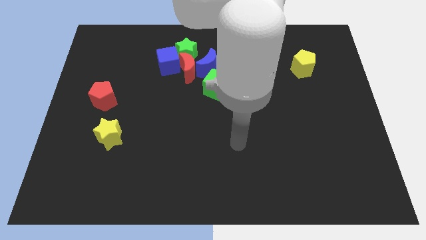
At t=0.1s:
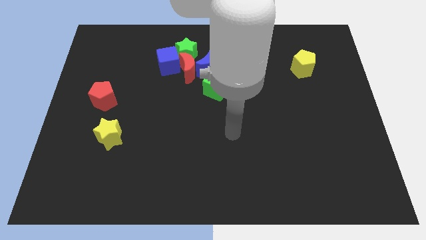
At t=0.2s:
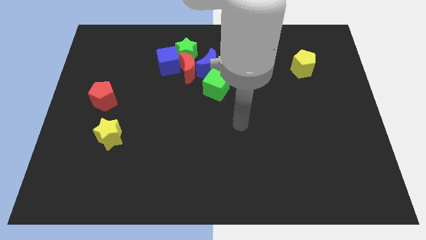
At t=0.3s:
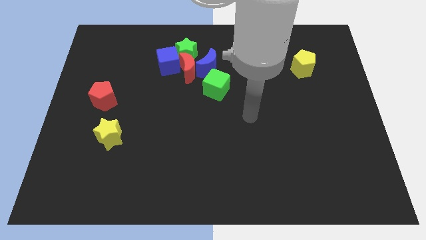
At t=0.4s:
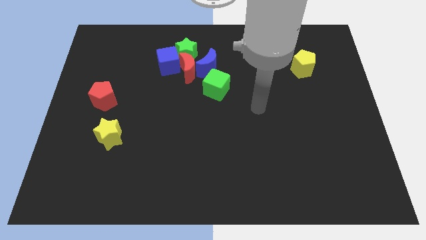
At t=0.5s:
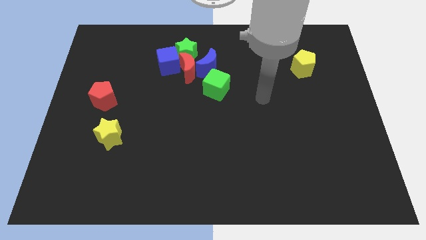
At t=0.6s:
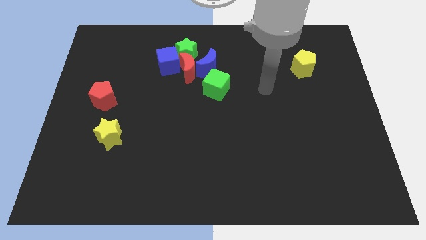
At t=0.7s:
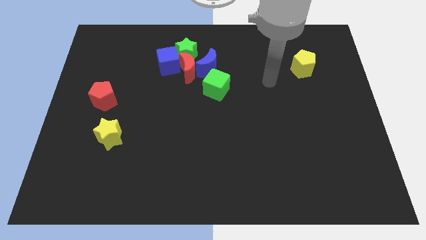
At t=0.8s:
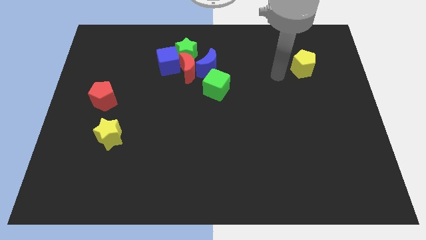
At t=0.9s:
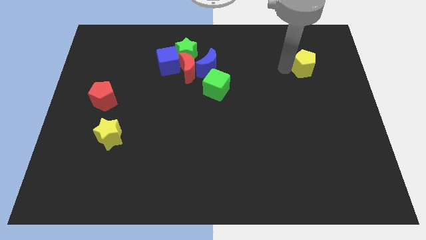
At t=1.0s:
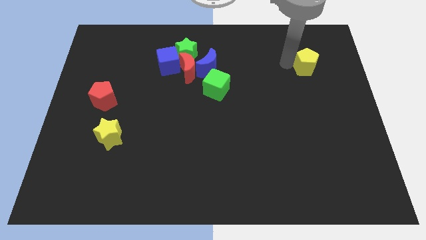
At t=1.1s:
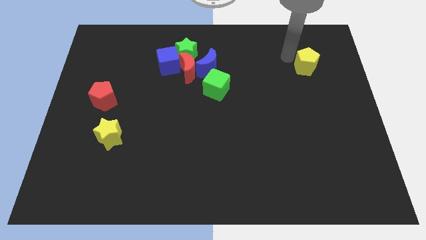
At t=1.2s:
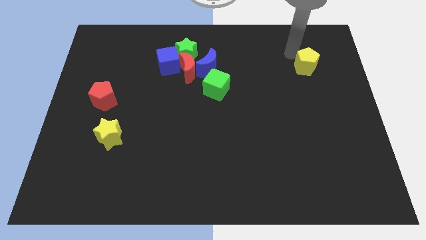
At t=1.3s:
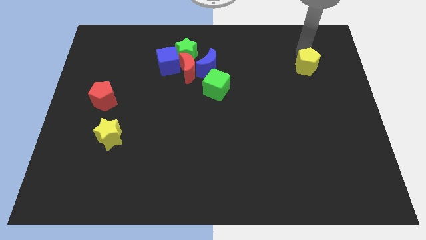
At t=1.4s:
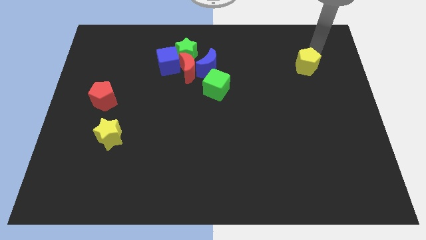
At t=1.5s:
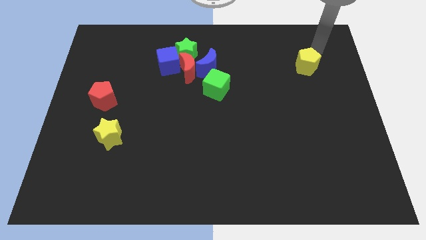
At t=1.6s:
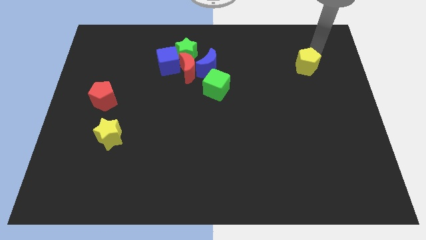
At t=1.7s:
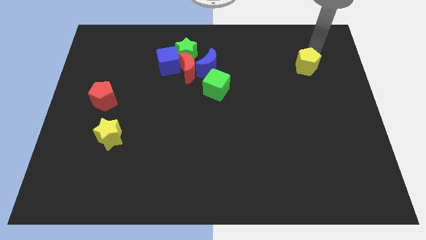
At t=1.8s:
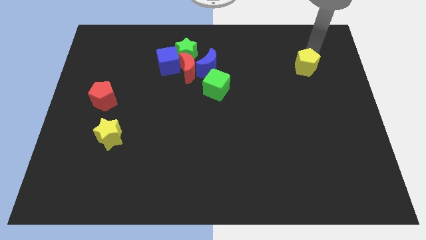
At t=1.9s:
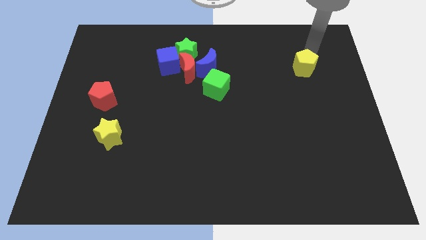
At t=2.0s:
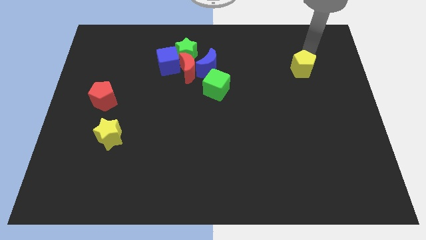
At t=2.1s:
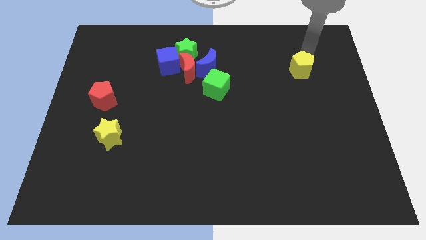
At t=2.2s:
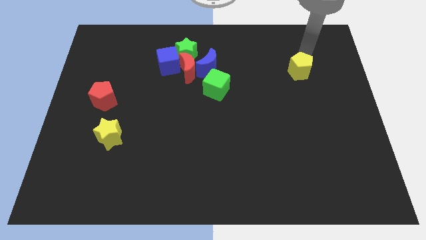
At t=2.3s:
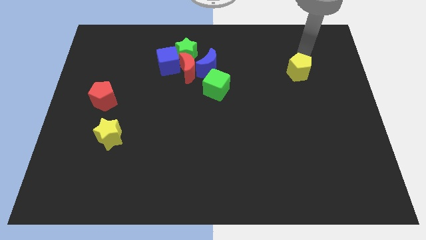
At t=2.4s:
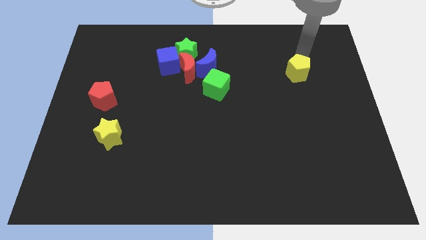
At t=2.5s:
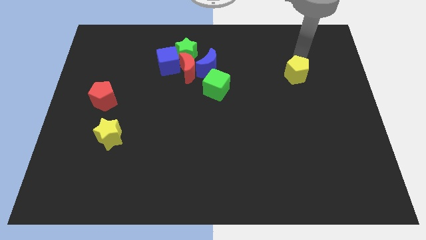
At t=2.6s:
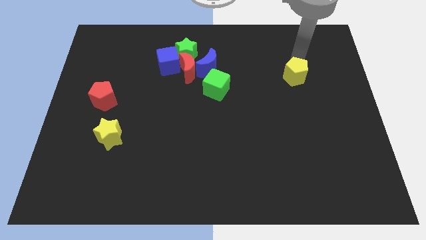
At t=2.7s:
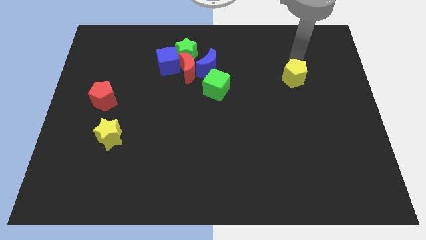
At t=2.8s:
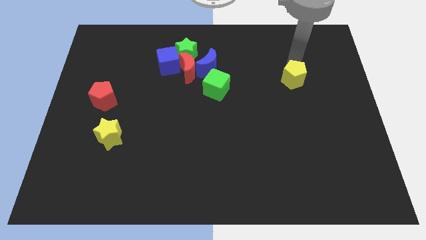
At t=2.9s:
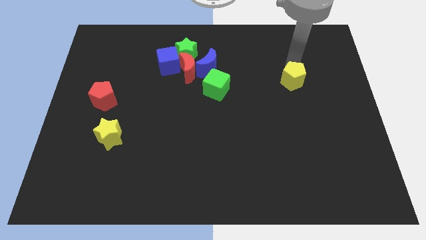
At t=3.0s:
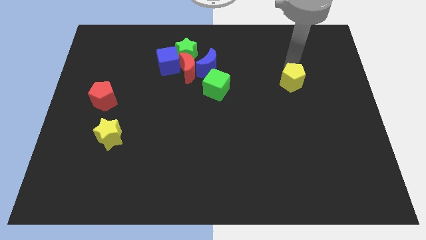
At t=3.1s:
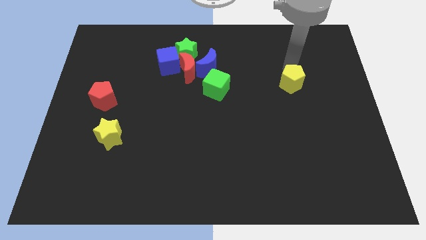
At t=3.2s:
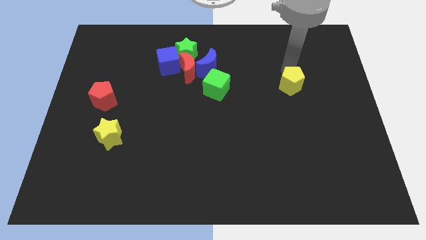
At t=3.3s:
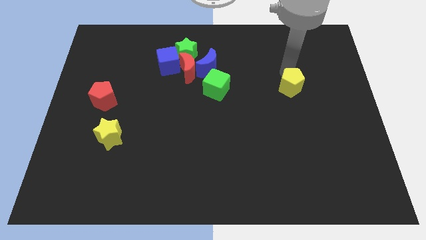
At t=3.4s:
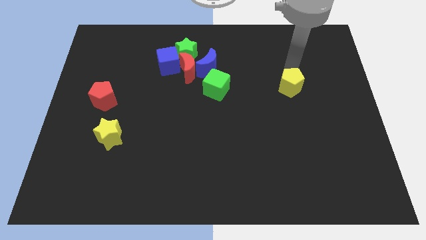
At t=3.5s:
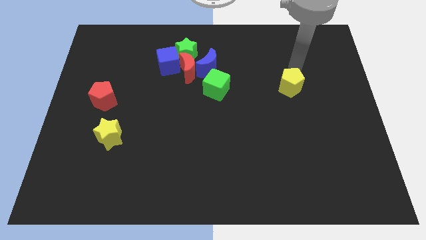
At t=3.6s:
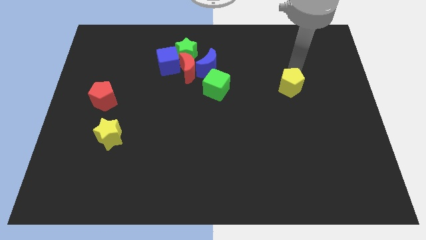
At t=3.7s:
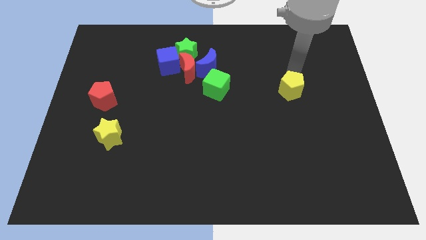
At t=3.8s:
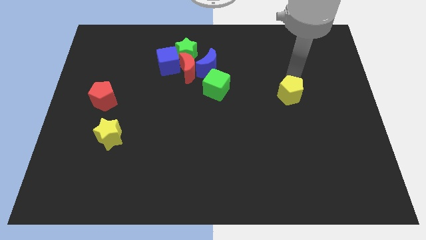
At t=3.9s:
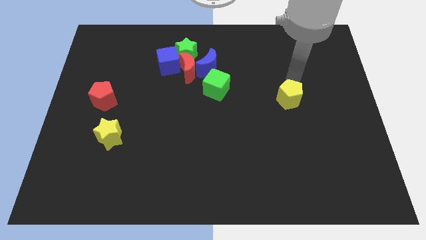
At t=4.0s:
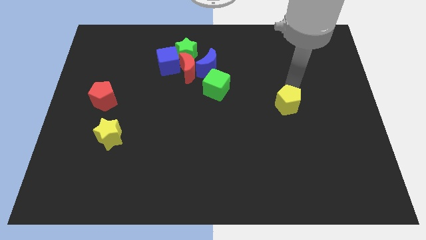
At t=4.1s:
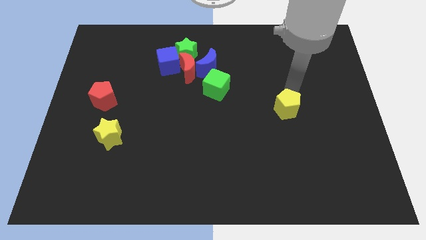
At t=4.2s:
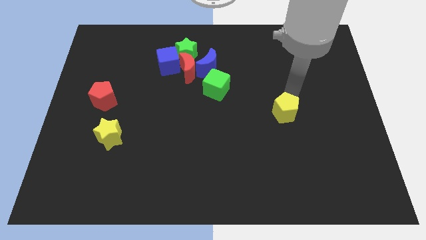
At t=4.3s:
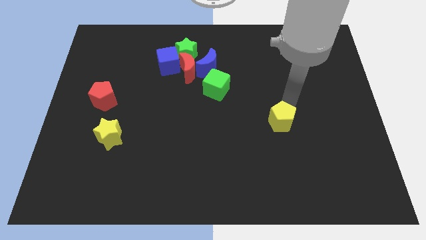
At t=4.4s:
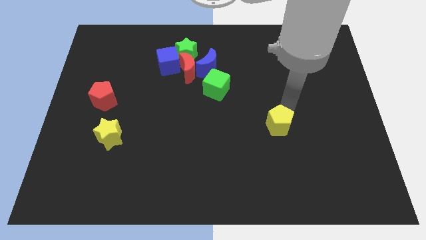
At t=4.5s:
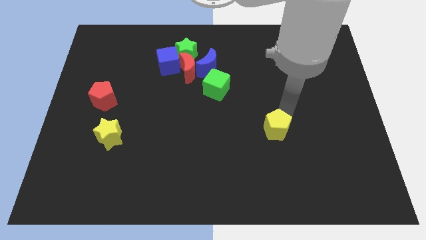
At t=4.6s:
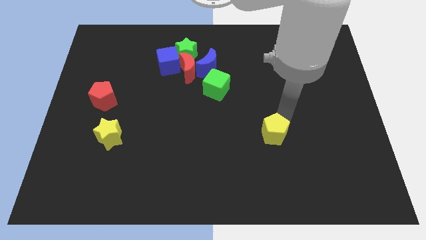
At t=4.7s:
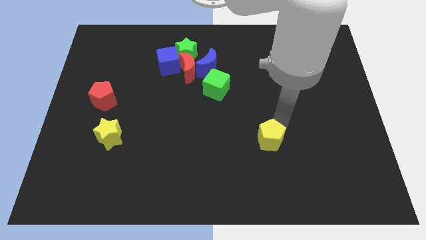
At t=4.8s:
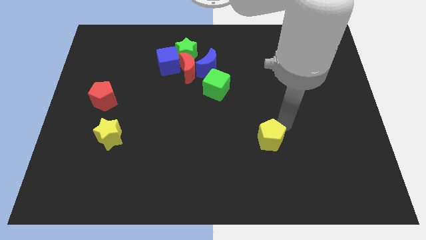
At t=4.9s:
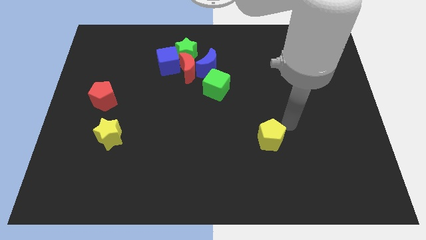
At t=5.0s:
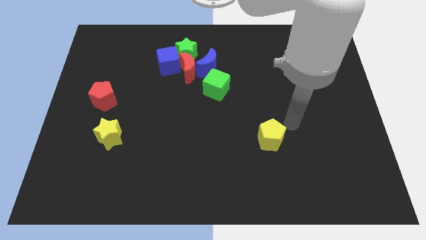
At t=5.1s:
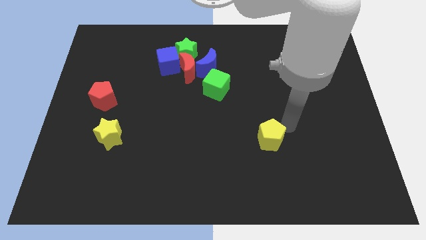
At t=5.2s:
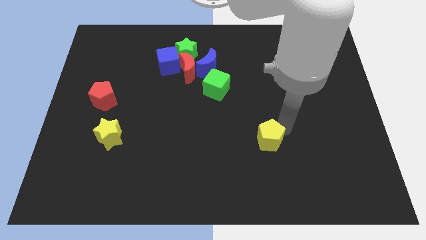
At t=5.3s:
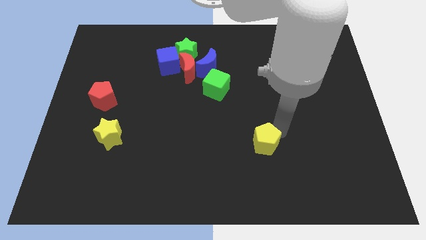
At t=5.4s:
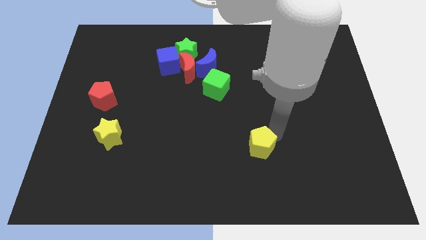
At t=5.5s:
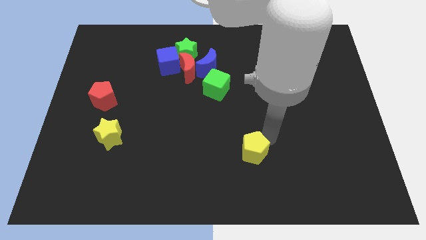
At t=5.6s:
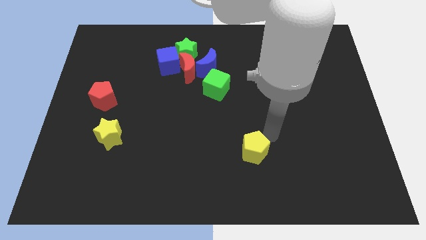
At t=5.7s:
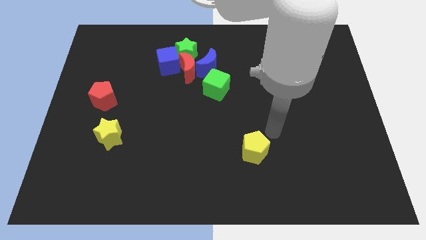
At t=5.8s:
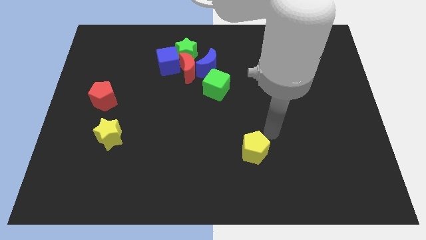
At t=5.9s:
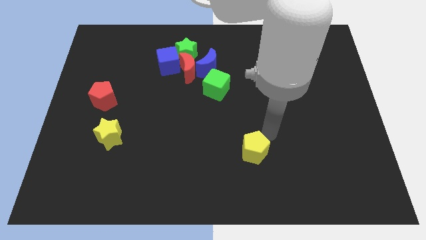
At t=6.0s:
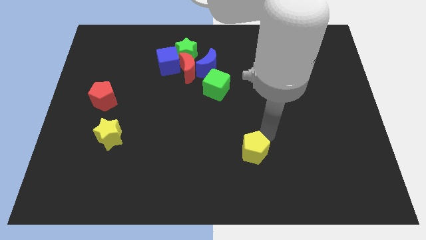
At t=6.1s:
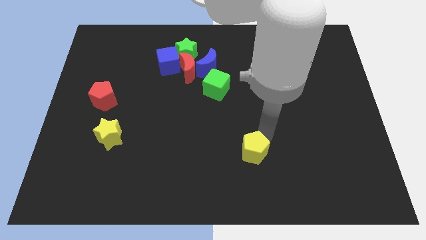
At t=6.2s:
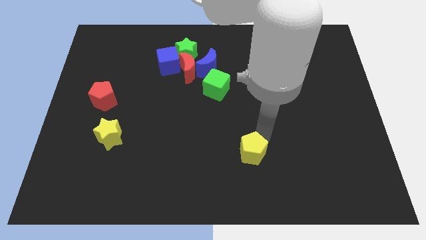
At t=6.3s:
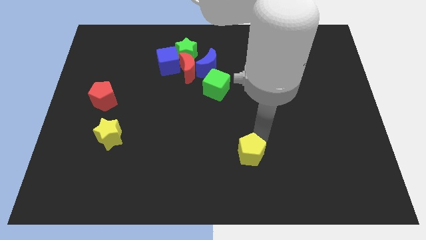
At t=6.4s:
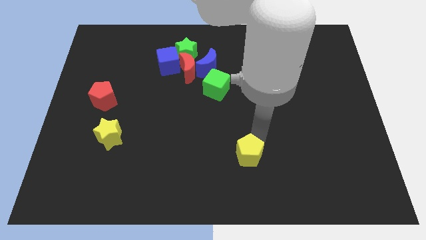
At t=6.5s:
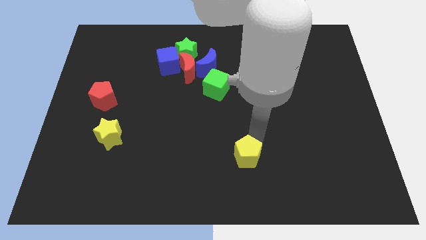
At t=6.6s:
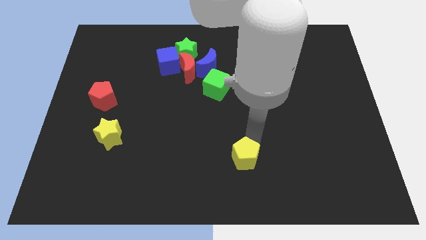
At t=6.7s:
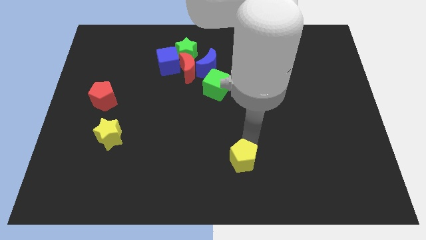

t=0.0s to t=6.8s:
move the yellow pentagon to the bottom

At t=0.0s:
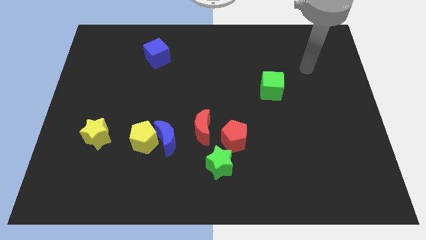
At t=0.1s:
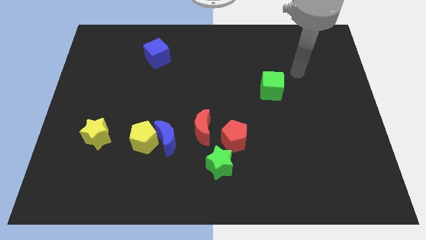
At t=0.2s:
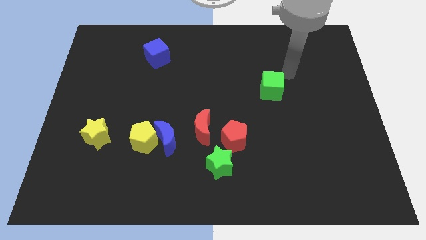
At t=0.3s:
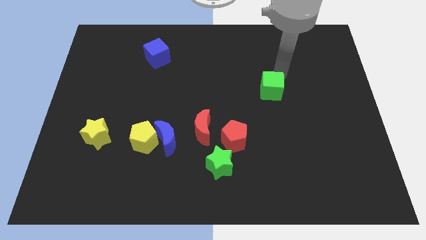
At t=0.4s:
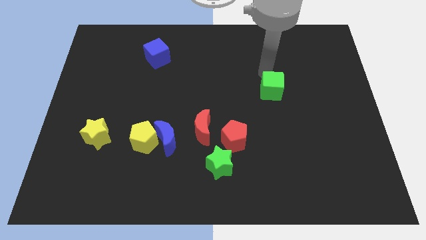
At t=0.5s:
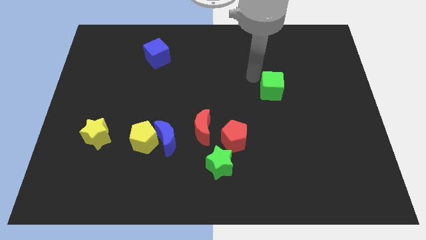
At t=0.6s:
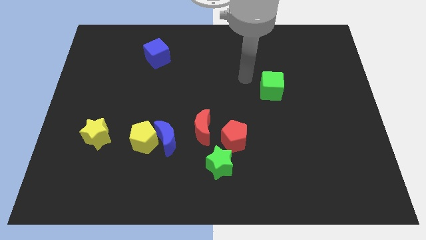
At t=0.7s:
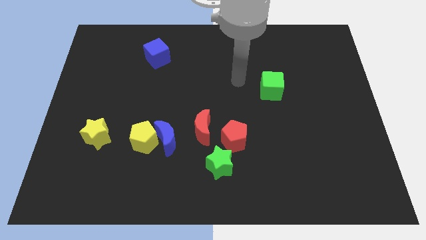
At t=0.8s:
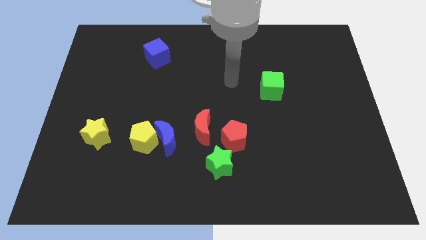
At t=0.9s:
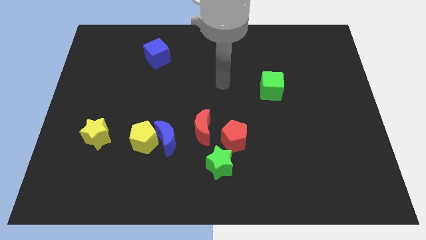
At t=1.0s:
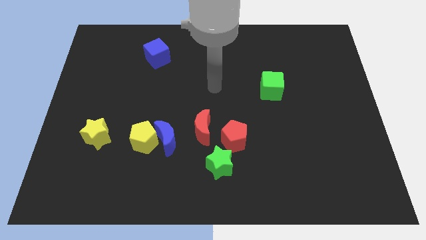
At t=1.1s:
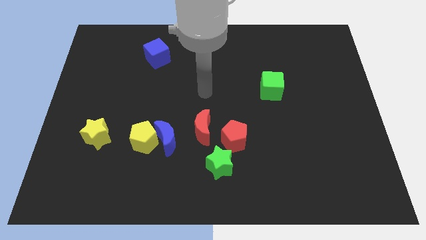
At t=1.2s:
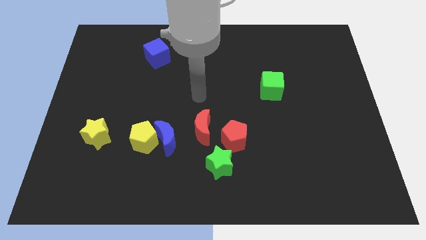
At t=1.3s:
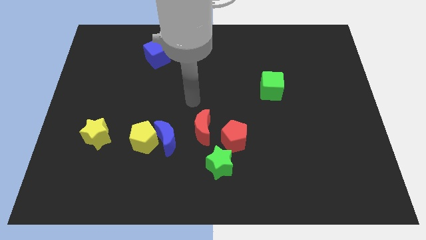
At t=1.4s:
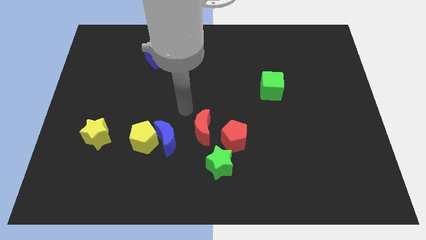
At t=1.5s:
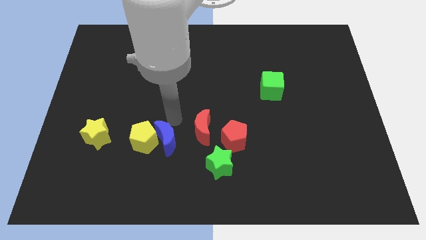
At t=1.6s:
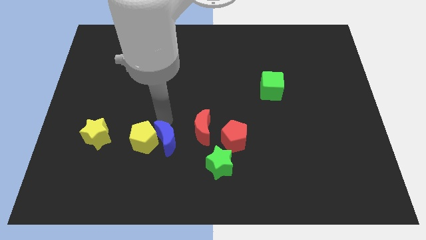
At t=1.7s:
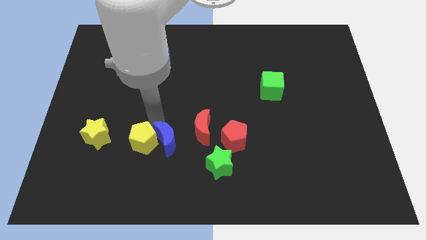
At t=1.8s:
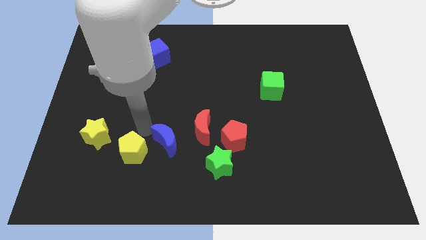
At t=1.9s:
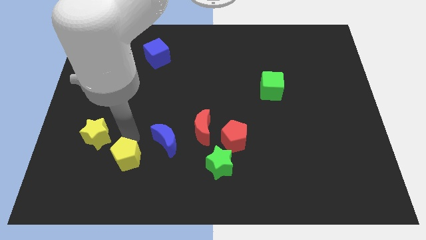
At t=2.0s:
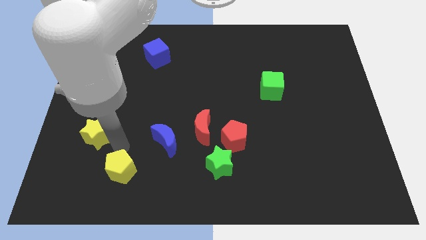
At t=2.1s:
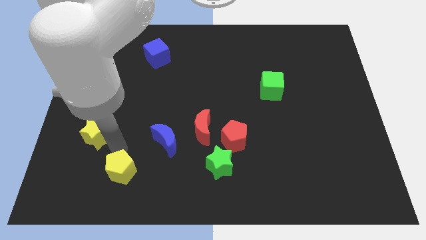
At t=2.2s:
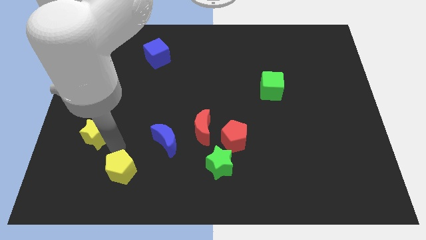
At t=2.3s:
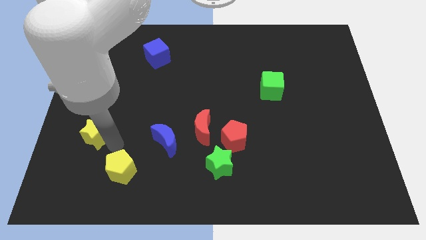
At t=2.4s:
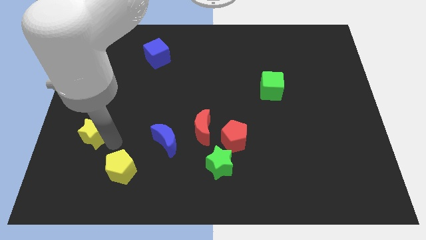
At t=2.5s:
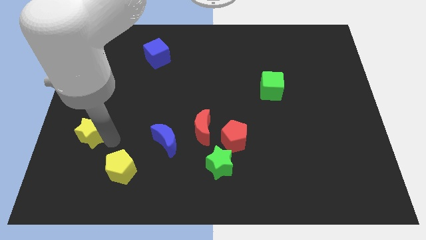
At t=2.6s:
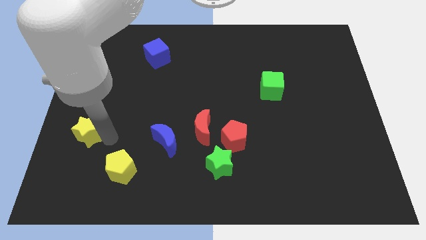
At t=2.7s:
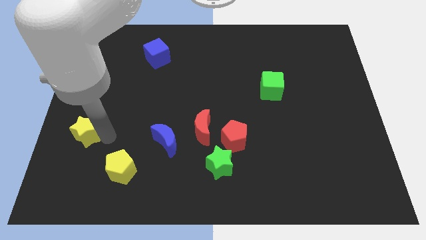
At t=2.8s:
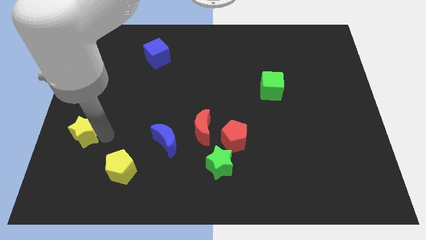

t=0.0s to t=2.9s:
move the yellow star to the left side of the board
